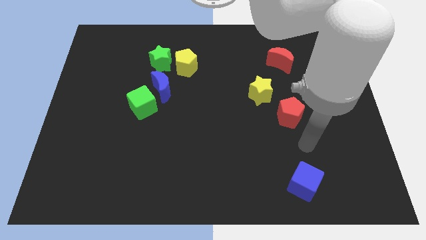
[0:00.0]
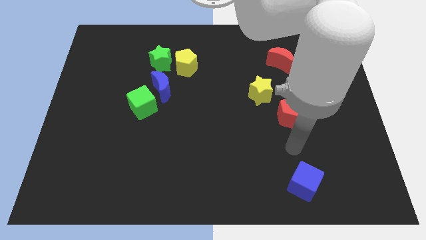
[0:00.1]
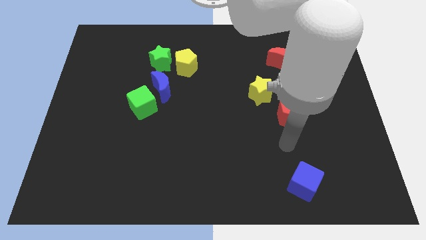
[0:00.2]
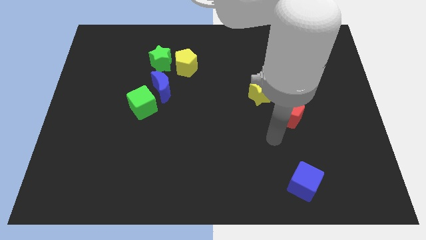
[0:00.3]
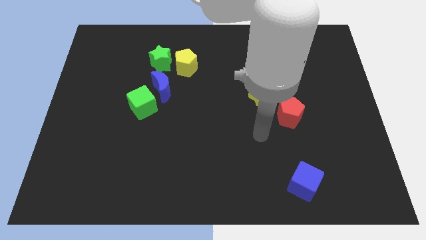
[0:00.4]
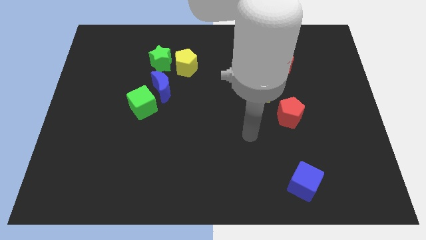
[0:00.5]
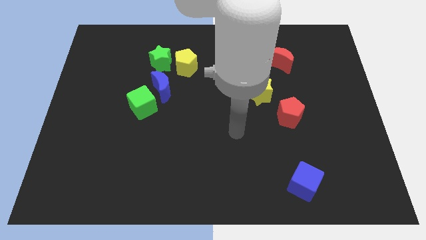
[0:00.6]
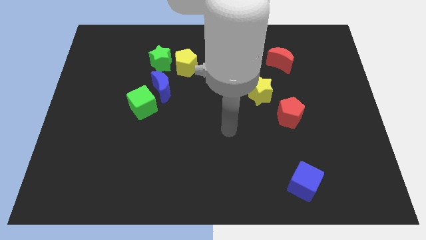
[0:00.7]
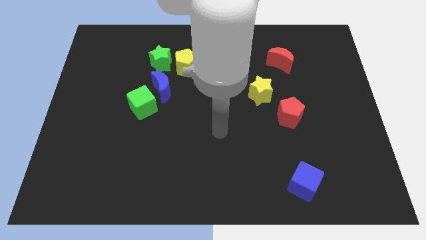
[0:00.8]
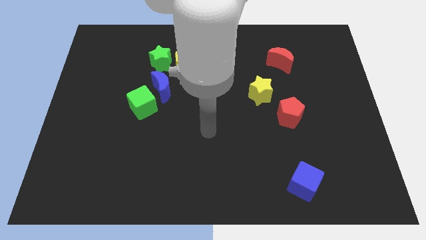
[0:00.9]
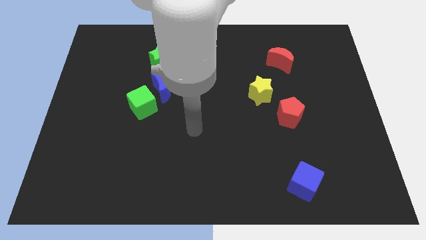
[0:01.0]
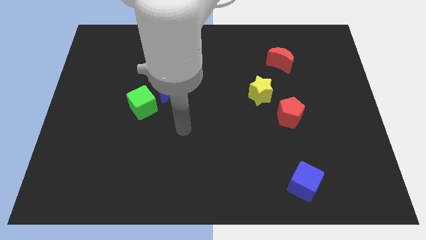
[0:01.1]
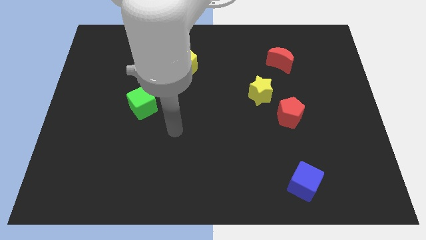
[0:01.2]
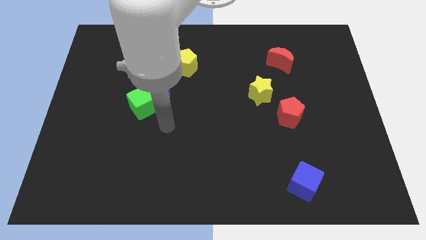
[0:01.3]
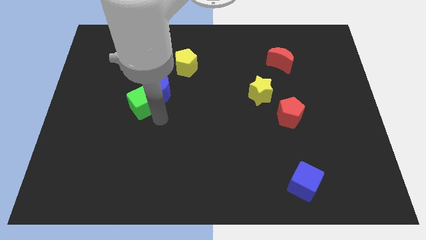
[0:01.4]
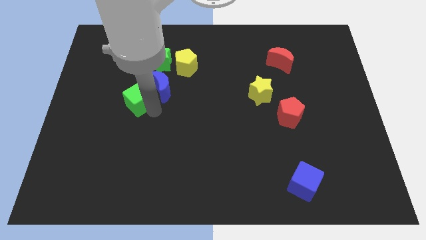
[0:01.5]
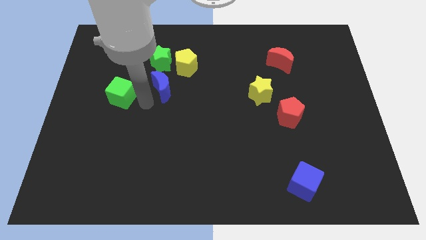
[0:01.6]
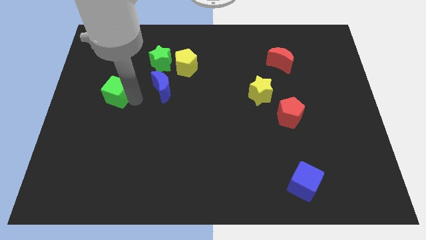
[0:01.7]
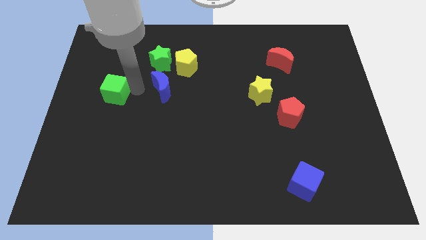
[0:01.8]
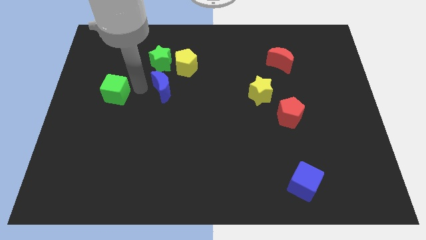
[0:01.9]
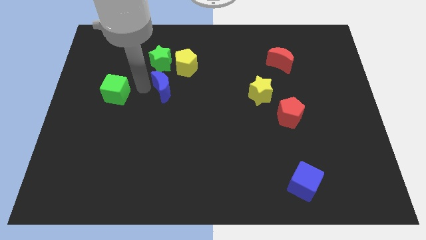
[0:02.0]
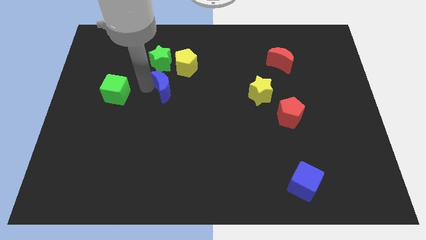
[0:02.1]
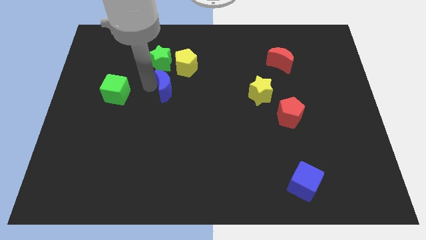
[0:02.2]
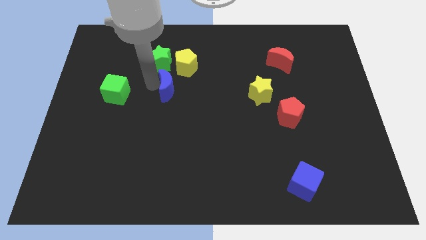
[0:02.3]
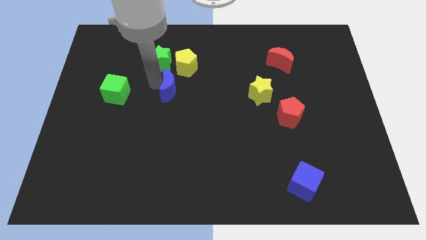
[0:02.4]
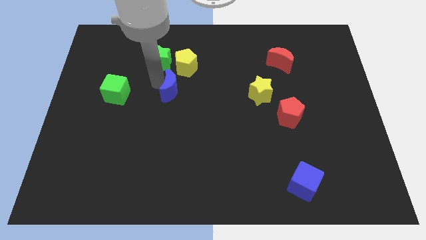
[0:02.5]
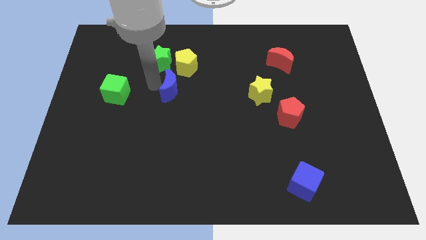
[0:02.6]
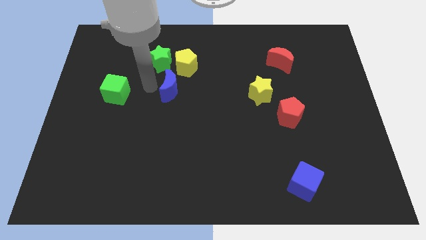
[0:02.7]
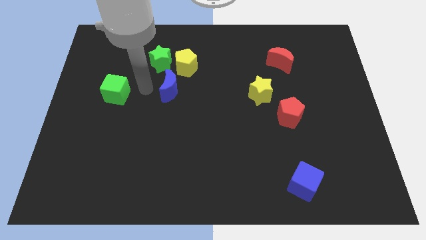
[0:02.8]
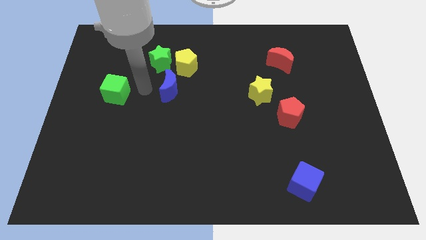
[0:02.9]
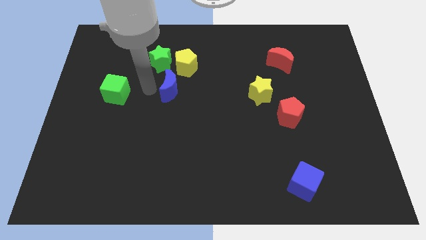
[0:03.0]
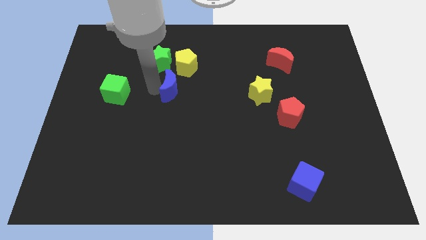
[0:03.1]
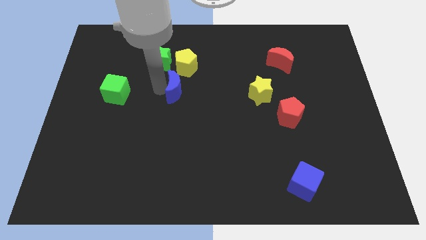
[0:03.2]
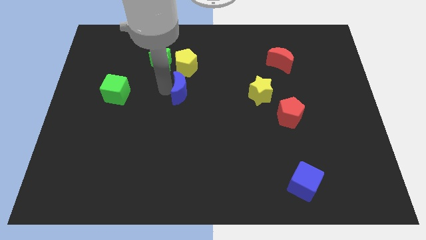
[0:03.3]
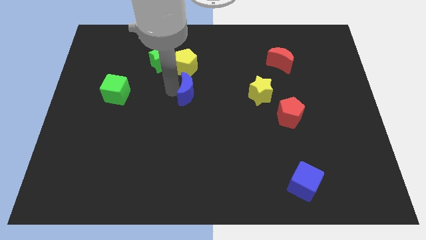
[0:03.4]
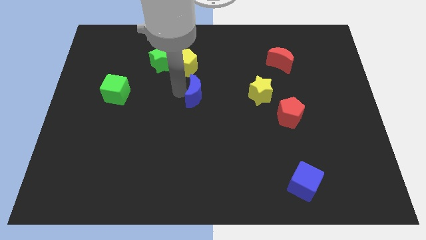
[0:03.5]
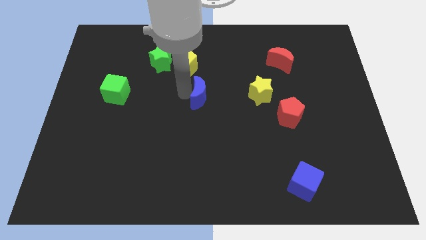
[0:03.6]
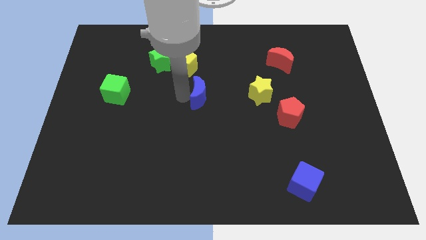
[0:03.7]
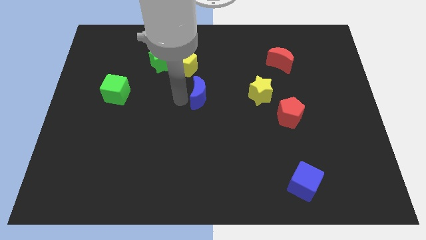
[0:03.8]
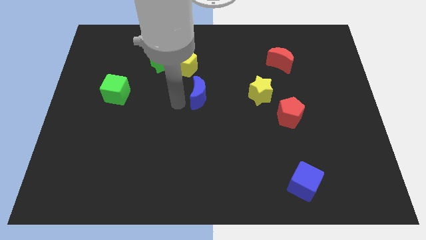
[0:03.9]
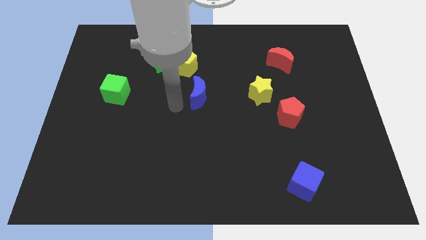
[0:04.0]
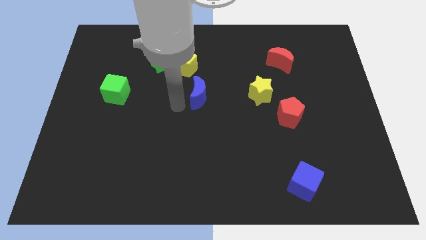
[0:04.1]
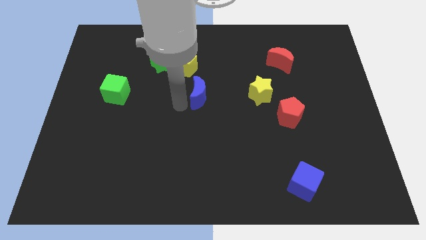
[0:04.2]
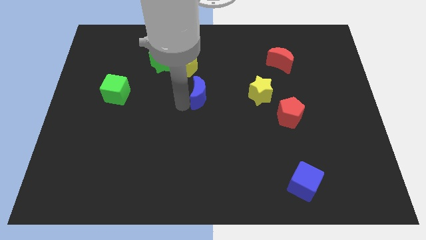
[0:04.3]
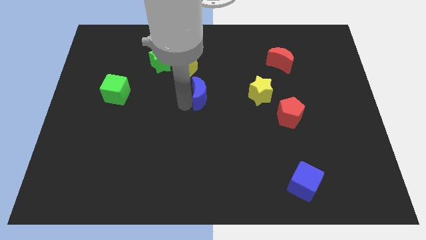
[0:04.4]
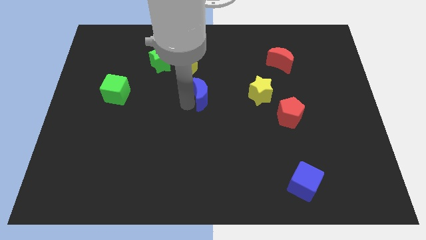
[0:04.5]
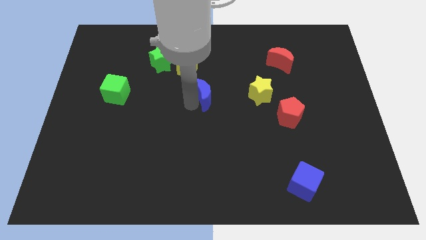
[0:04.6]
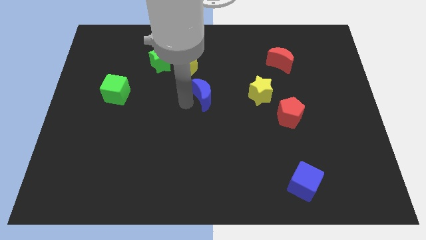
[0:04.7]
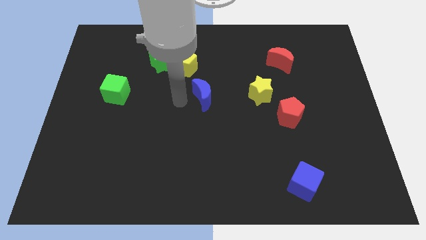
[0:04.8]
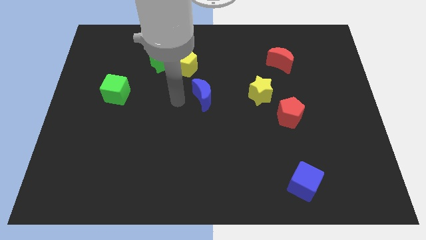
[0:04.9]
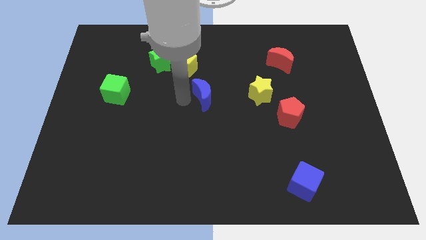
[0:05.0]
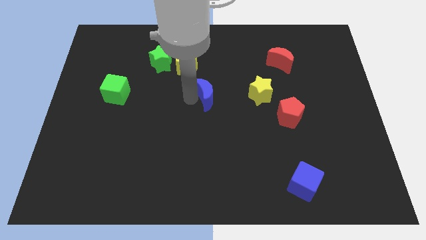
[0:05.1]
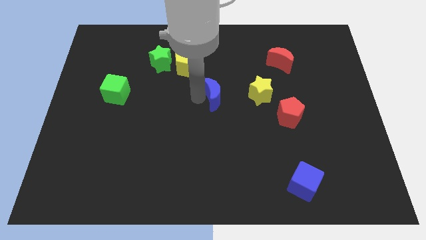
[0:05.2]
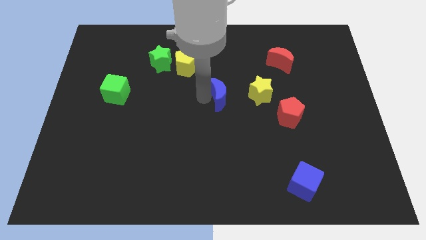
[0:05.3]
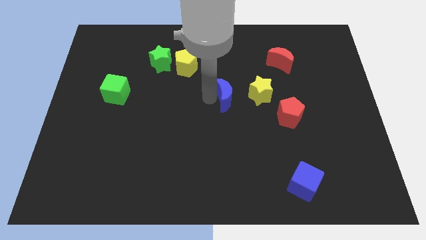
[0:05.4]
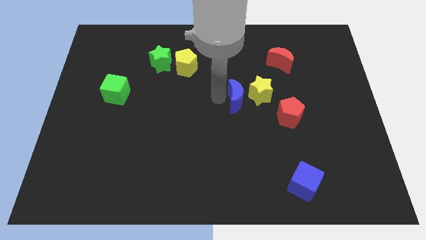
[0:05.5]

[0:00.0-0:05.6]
put the blue moon close to the yellow star

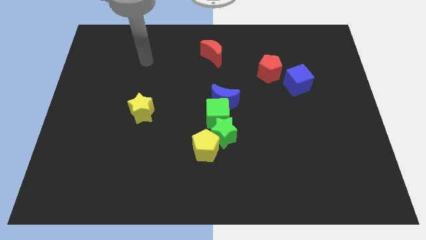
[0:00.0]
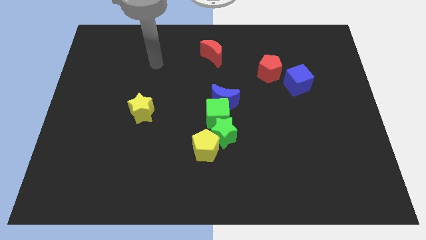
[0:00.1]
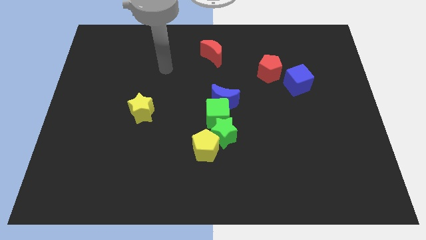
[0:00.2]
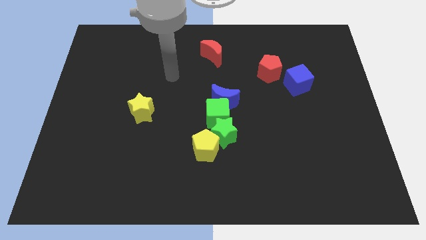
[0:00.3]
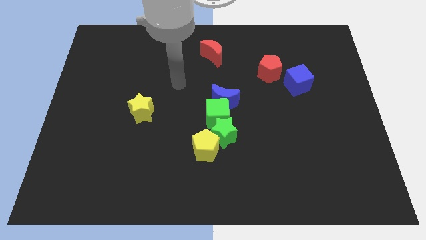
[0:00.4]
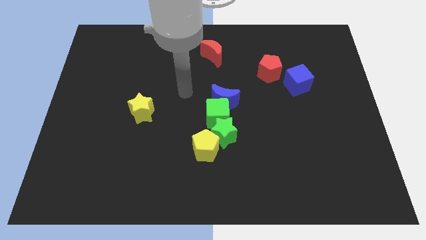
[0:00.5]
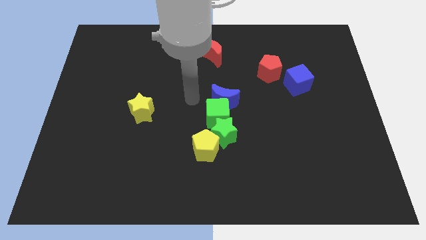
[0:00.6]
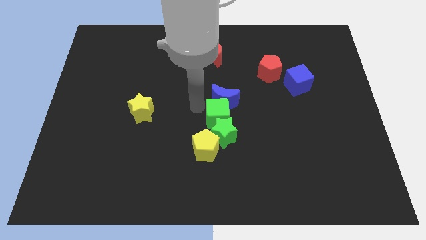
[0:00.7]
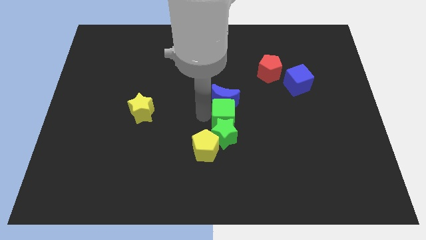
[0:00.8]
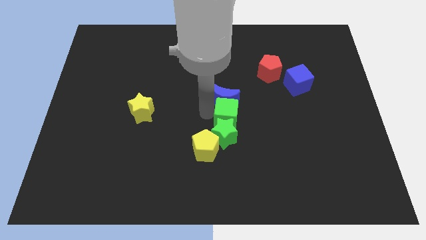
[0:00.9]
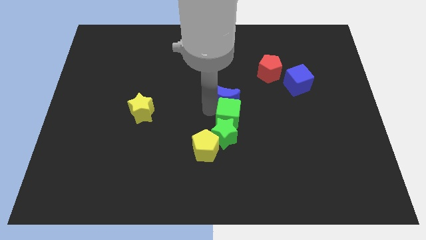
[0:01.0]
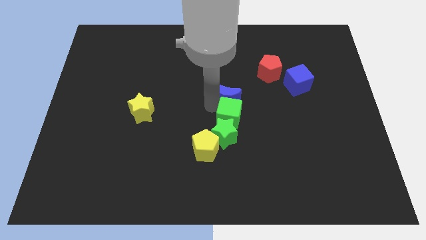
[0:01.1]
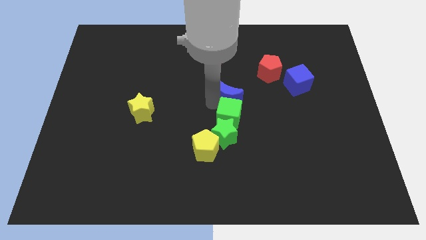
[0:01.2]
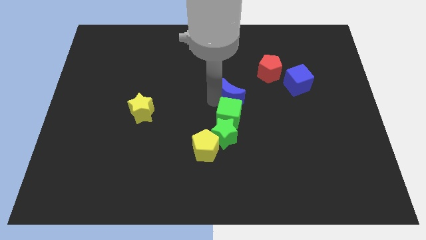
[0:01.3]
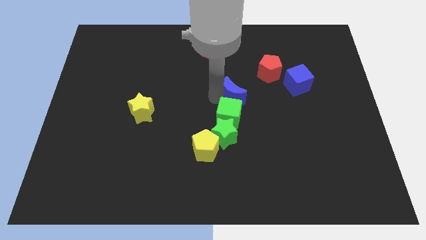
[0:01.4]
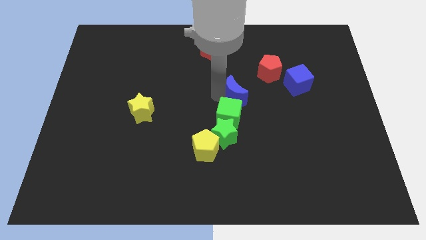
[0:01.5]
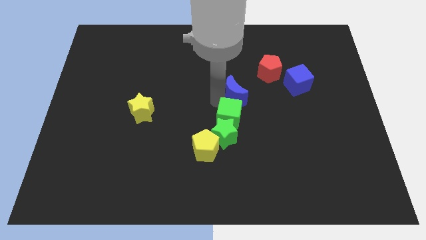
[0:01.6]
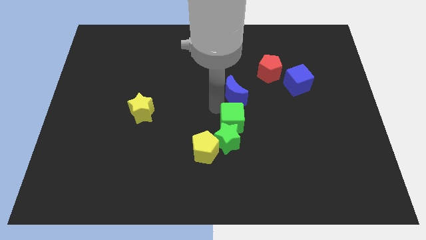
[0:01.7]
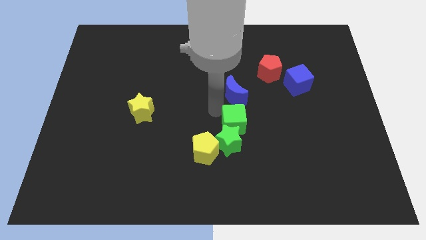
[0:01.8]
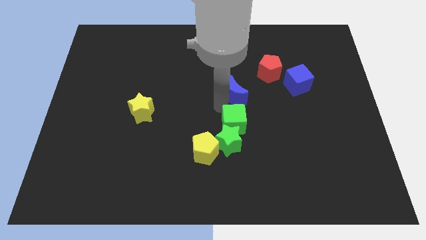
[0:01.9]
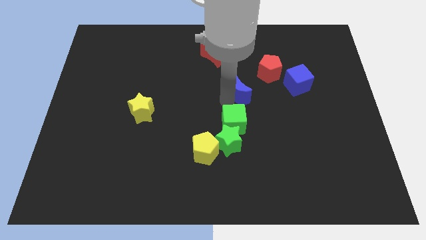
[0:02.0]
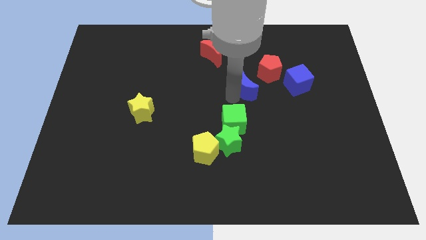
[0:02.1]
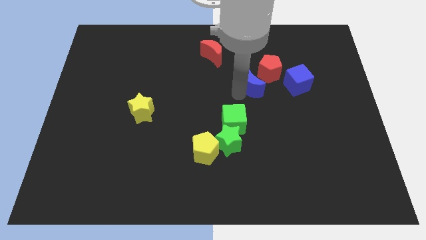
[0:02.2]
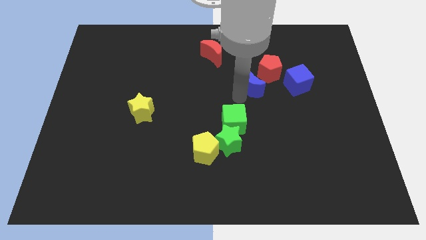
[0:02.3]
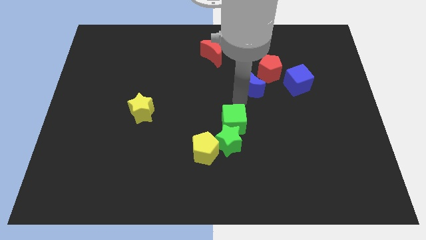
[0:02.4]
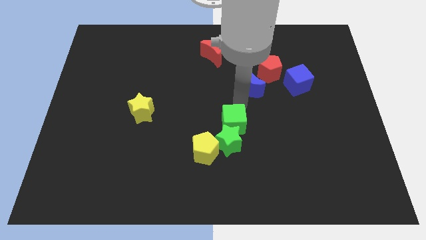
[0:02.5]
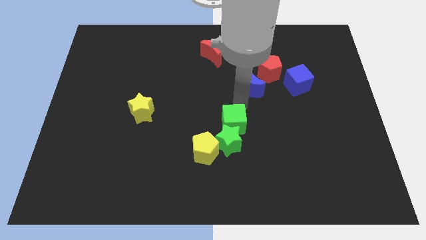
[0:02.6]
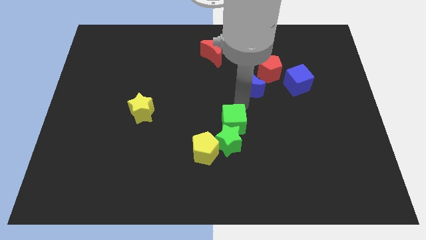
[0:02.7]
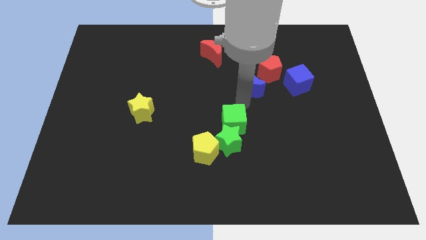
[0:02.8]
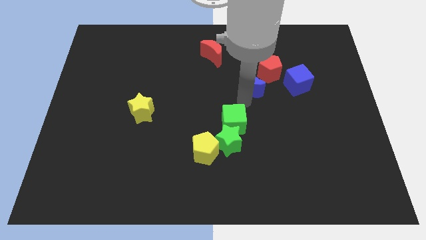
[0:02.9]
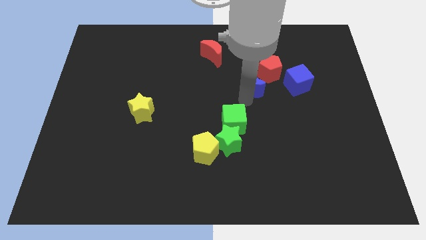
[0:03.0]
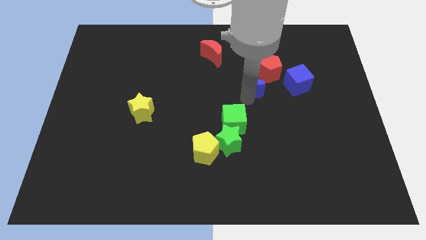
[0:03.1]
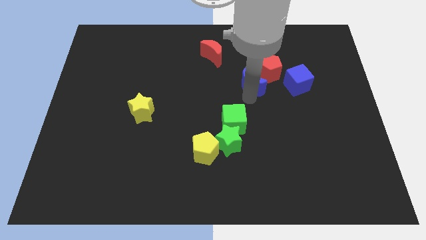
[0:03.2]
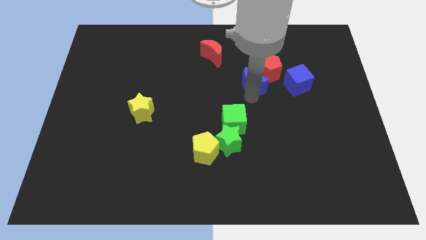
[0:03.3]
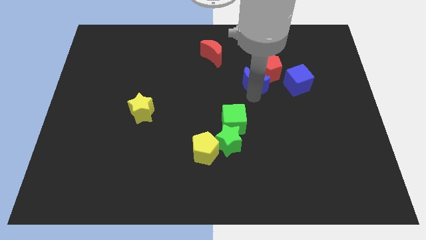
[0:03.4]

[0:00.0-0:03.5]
slide the blue moon close to the red pentagon
